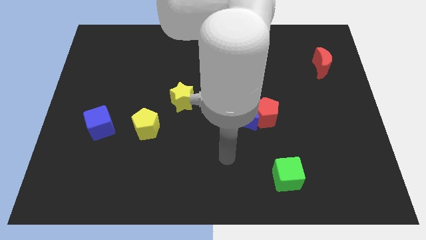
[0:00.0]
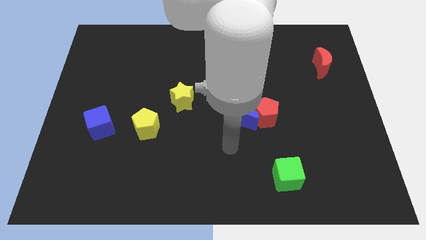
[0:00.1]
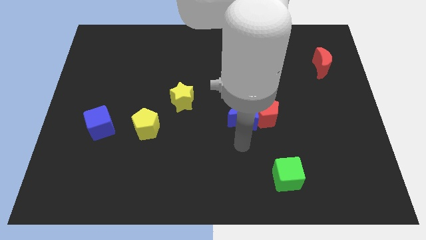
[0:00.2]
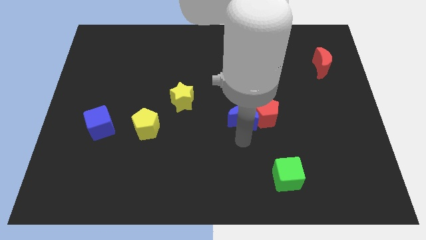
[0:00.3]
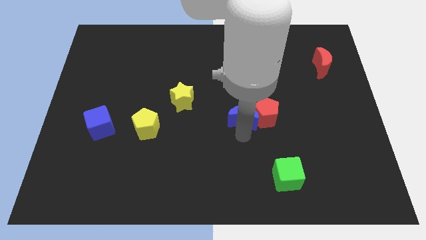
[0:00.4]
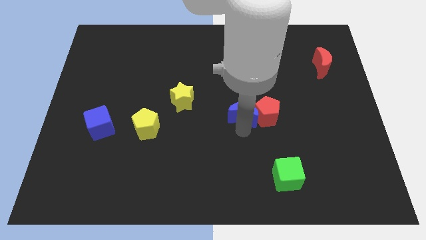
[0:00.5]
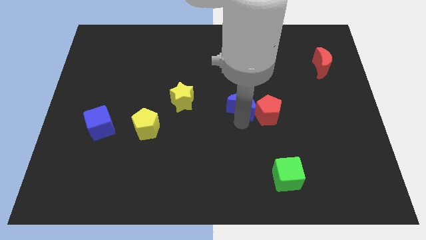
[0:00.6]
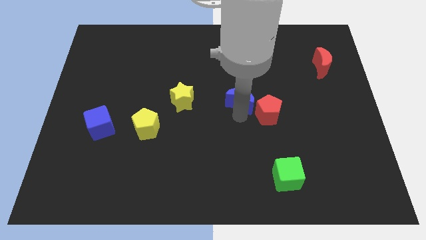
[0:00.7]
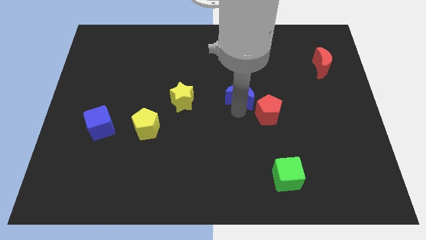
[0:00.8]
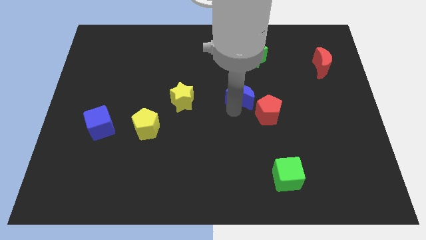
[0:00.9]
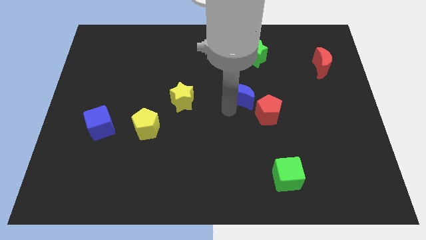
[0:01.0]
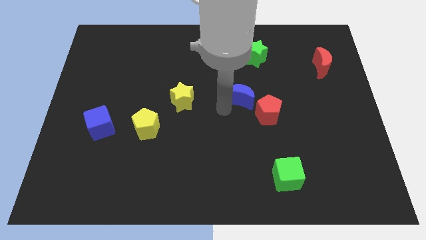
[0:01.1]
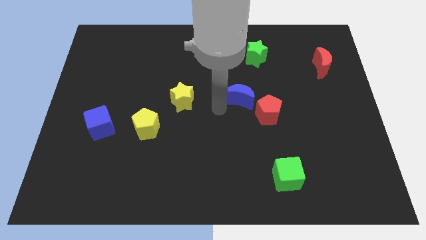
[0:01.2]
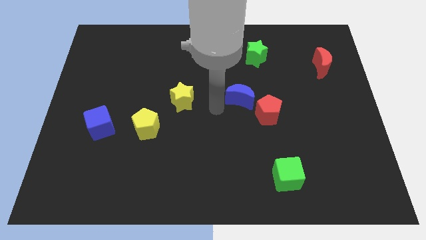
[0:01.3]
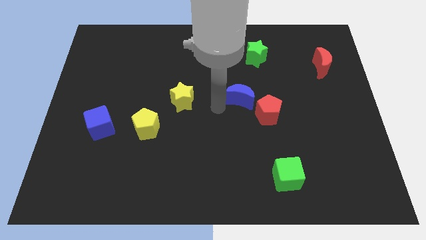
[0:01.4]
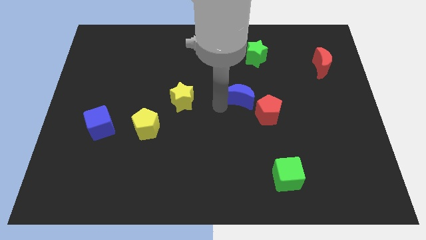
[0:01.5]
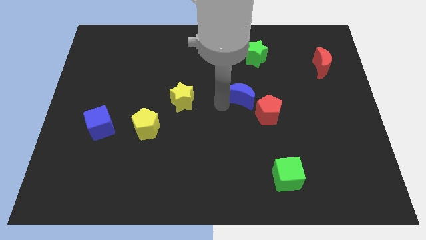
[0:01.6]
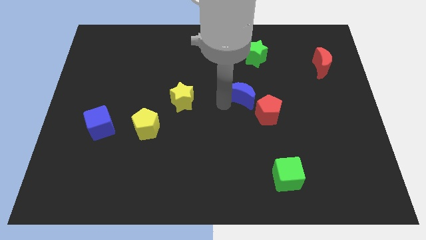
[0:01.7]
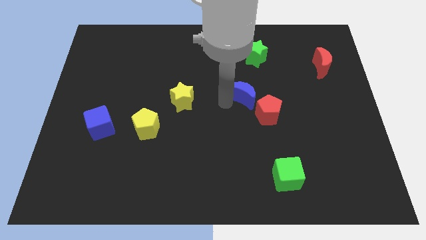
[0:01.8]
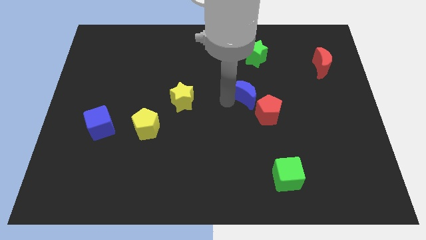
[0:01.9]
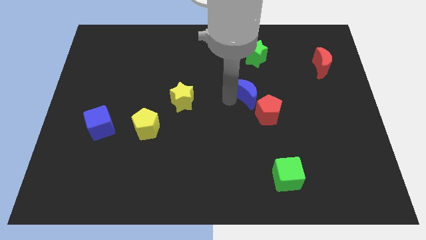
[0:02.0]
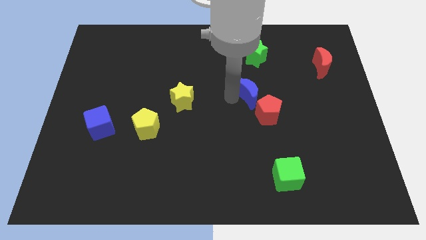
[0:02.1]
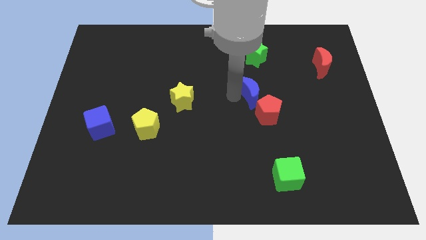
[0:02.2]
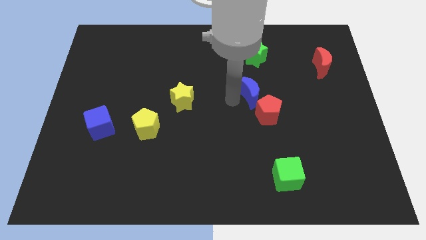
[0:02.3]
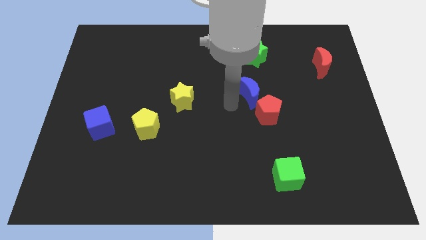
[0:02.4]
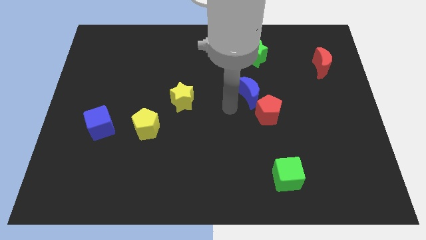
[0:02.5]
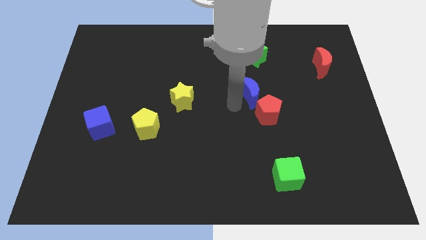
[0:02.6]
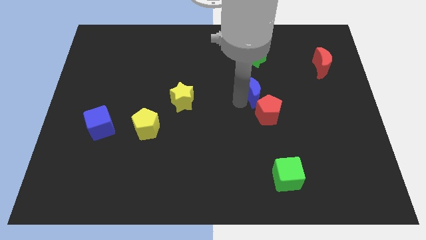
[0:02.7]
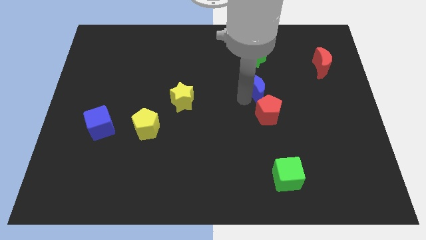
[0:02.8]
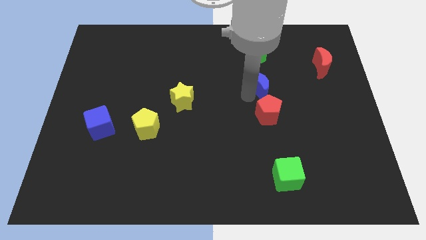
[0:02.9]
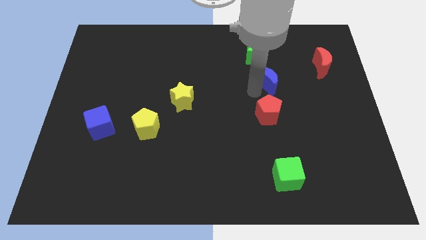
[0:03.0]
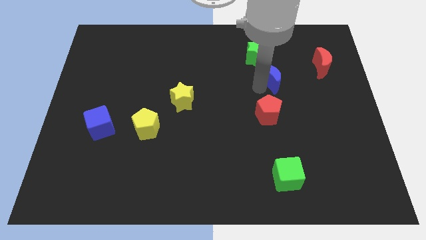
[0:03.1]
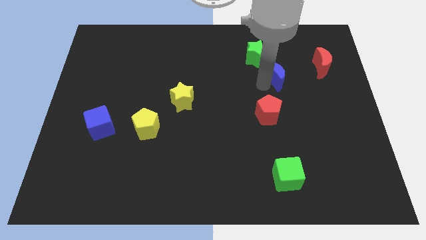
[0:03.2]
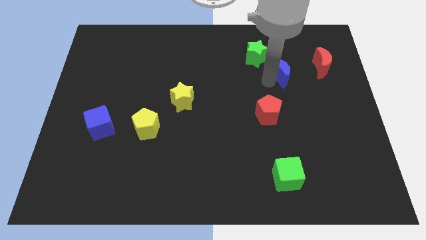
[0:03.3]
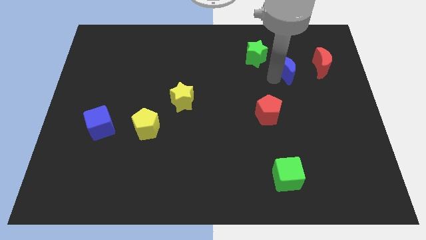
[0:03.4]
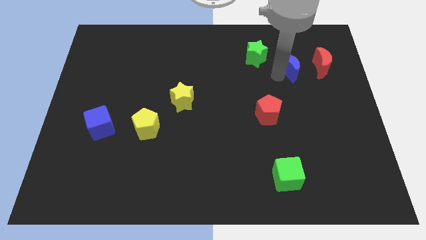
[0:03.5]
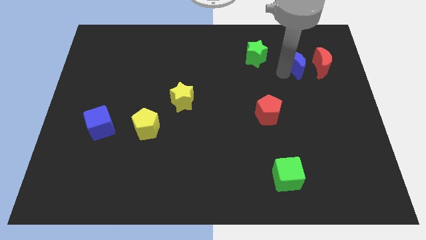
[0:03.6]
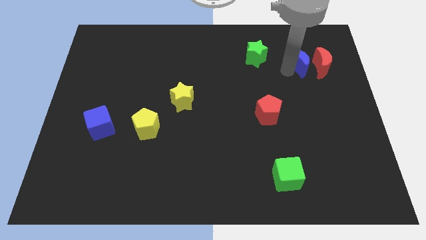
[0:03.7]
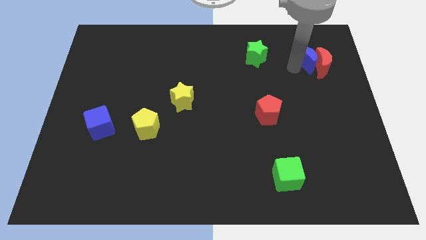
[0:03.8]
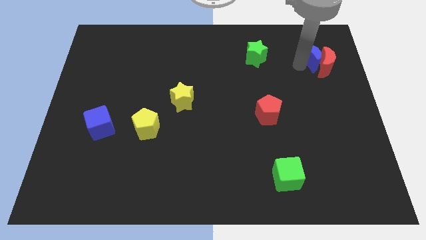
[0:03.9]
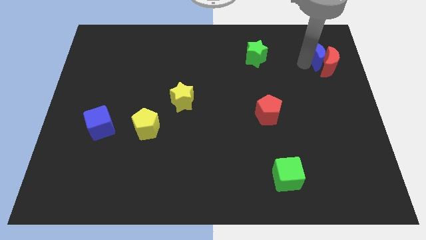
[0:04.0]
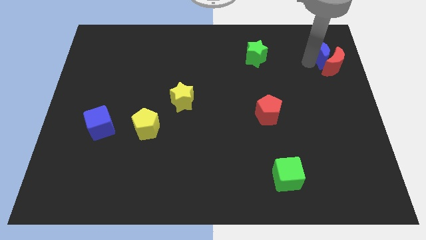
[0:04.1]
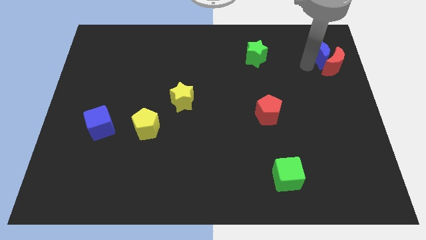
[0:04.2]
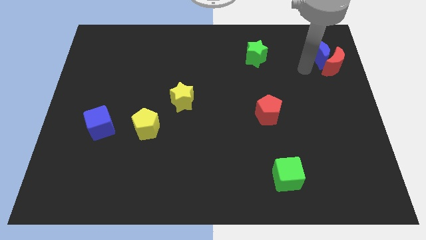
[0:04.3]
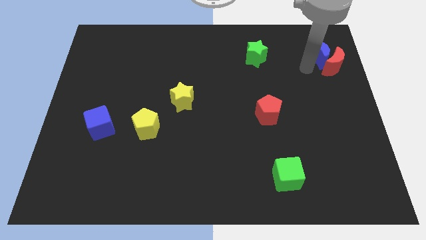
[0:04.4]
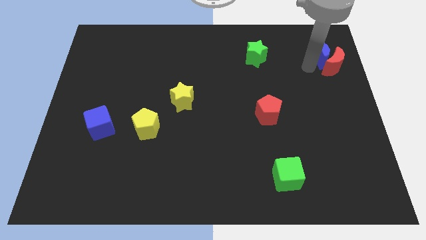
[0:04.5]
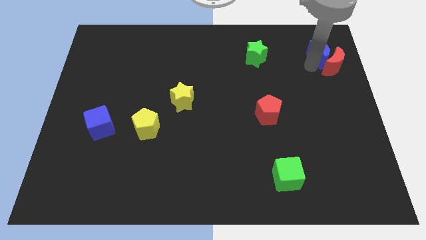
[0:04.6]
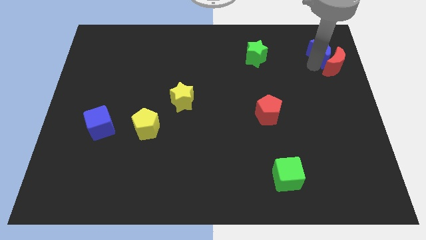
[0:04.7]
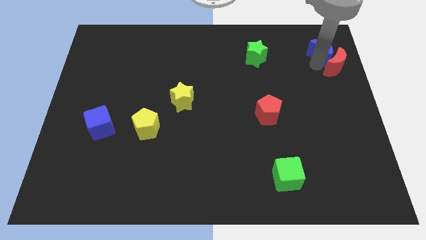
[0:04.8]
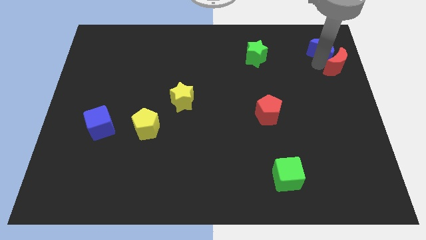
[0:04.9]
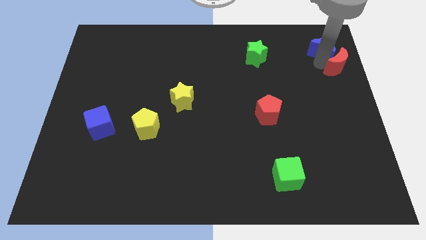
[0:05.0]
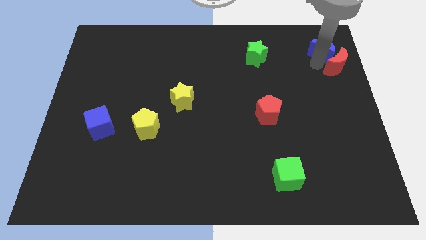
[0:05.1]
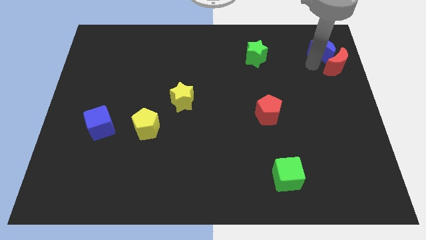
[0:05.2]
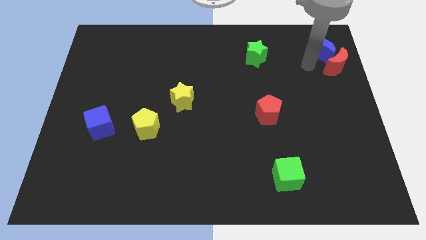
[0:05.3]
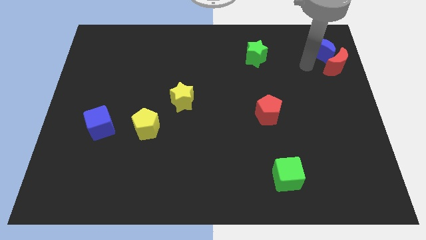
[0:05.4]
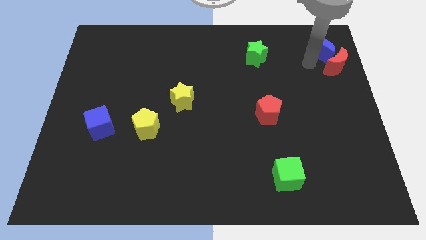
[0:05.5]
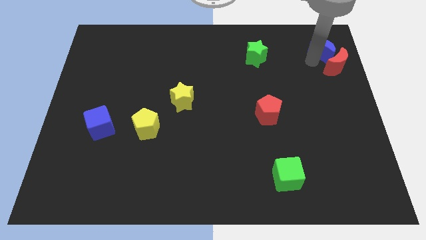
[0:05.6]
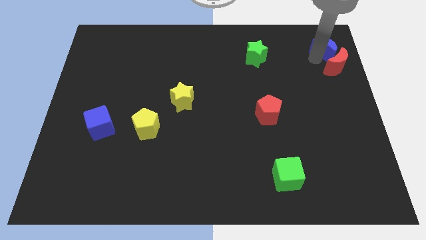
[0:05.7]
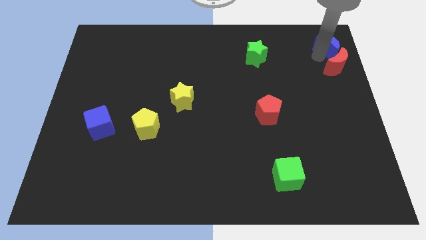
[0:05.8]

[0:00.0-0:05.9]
move the blue moon to the top right corner
